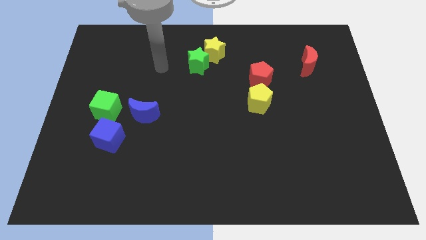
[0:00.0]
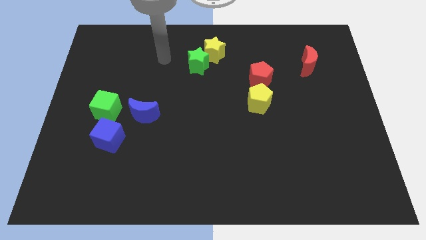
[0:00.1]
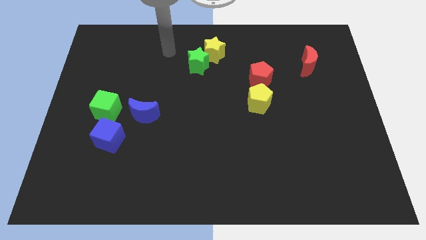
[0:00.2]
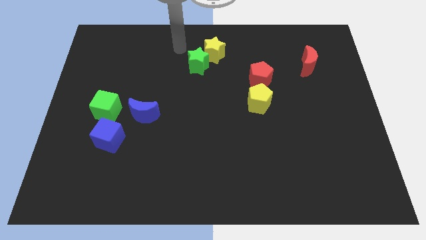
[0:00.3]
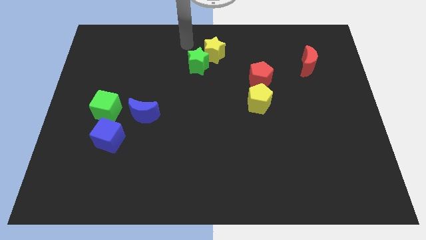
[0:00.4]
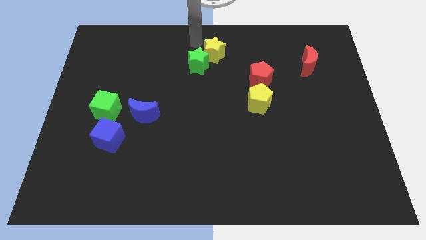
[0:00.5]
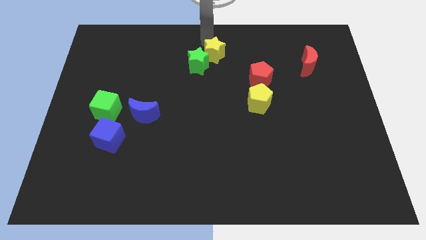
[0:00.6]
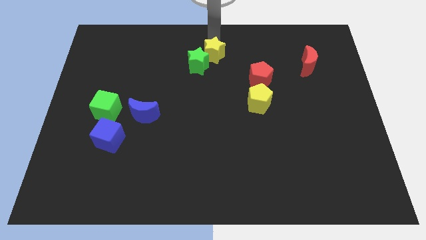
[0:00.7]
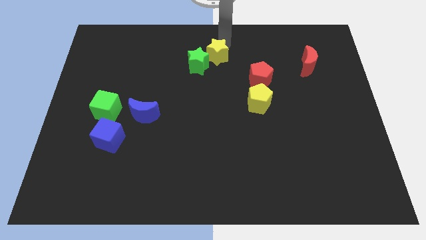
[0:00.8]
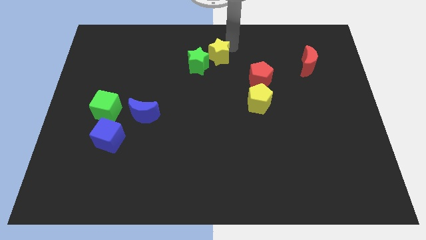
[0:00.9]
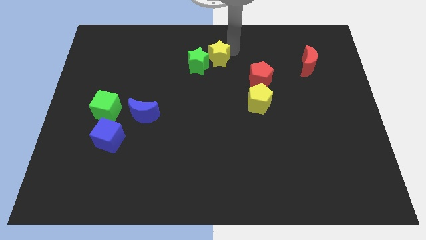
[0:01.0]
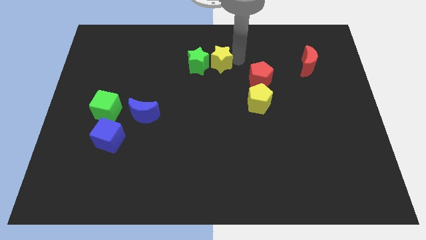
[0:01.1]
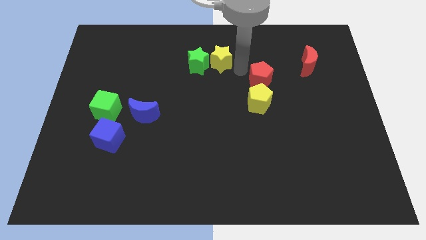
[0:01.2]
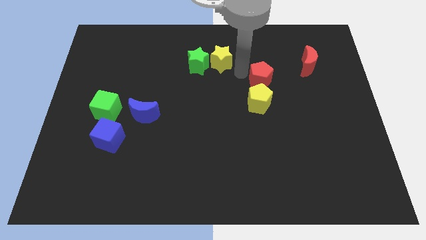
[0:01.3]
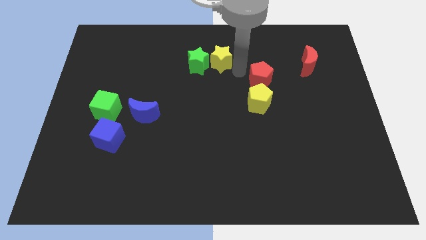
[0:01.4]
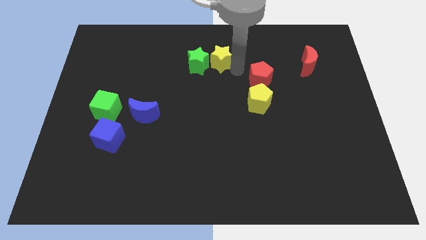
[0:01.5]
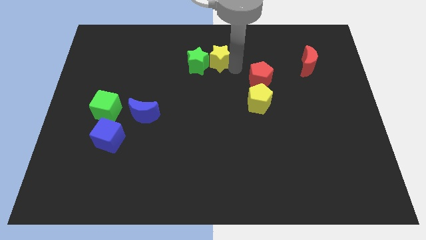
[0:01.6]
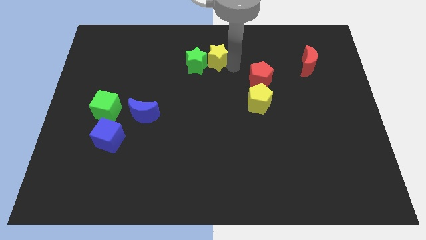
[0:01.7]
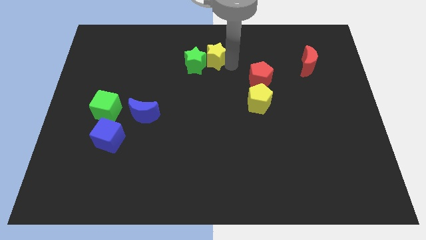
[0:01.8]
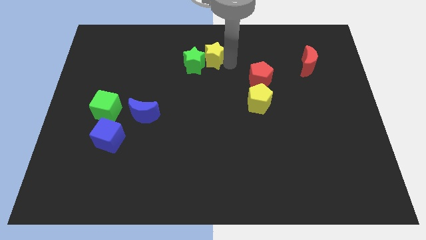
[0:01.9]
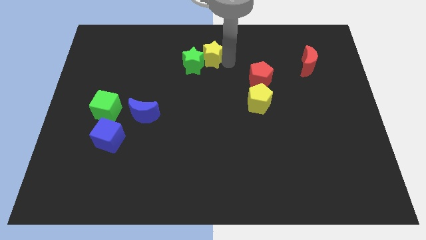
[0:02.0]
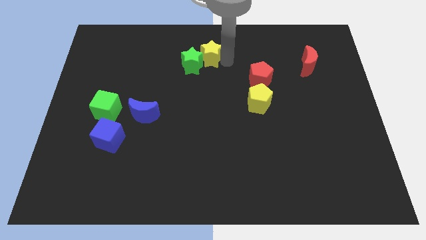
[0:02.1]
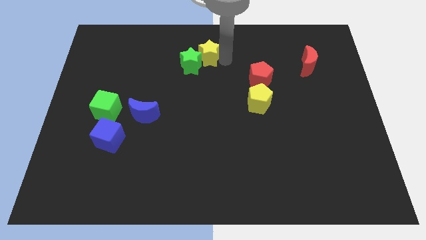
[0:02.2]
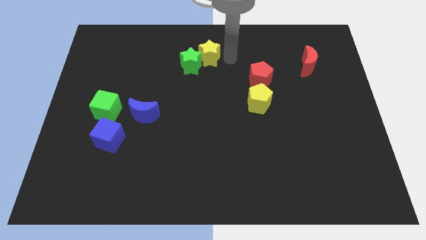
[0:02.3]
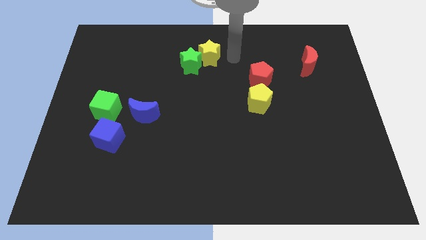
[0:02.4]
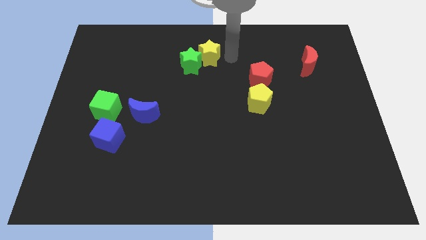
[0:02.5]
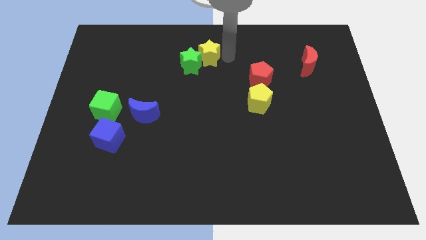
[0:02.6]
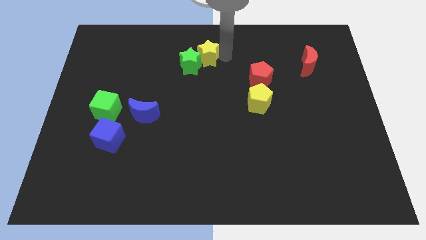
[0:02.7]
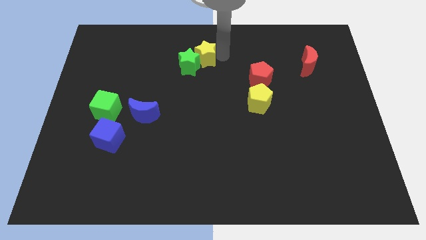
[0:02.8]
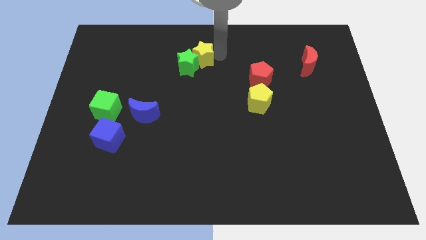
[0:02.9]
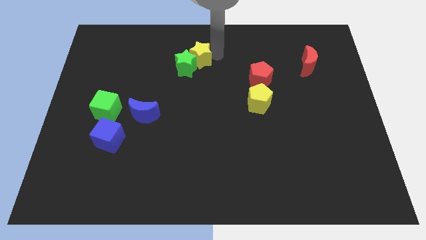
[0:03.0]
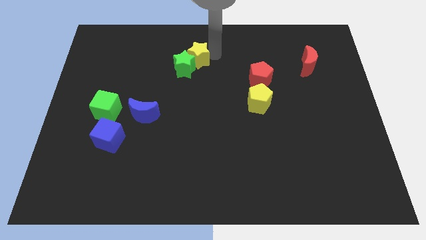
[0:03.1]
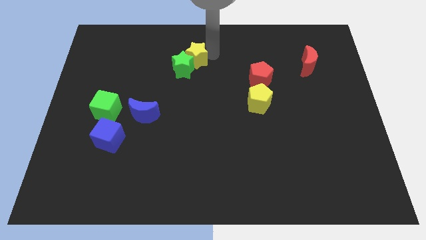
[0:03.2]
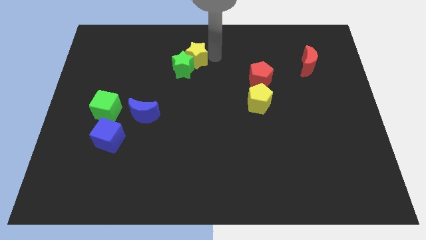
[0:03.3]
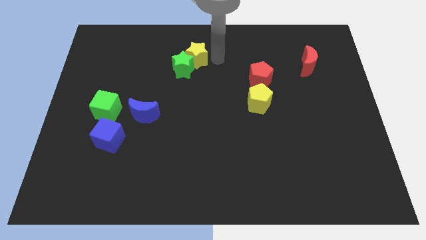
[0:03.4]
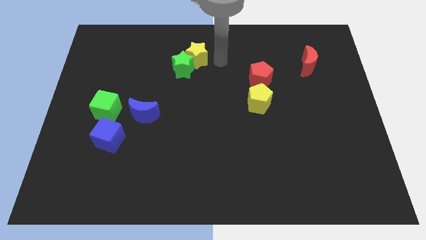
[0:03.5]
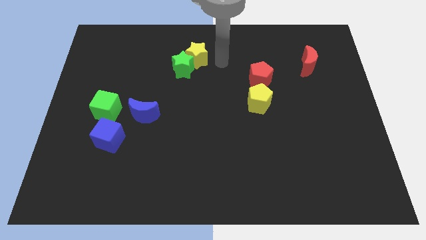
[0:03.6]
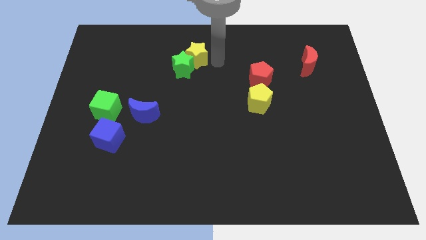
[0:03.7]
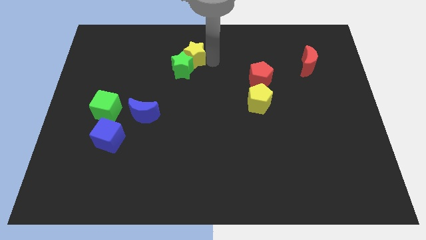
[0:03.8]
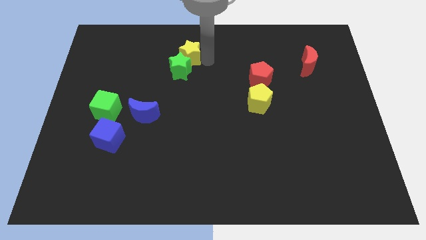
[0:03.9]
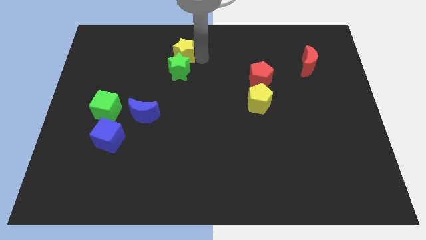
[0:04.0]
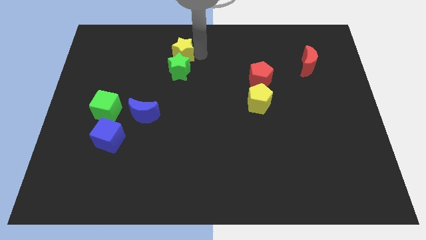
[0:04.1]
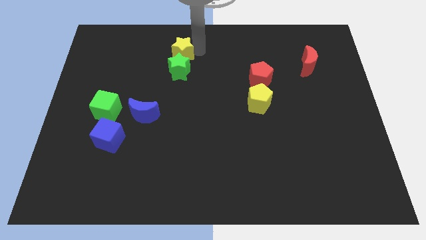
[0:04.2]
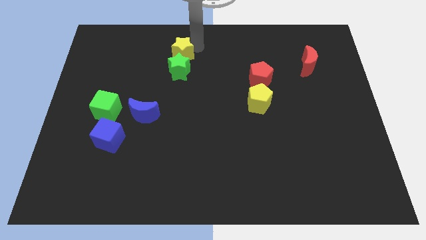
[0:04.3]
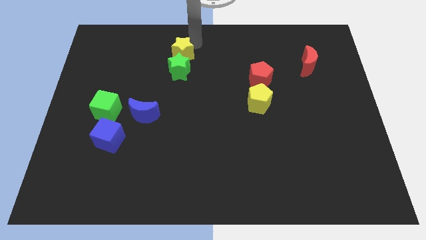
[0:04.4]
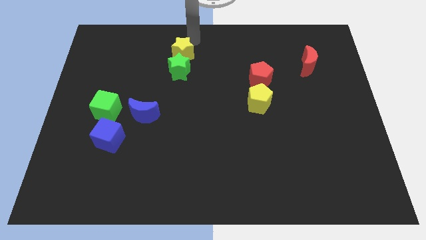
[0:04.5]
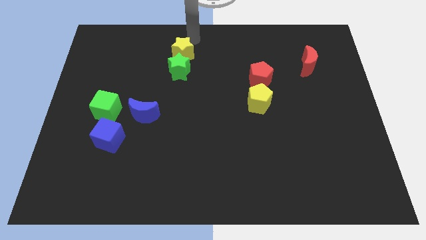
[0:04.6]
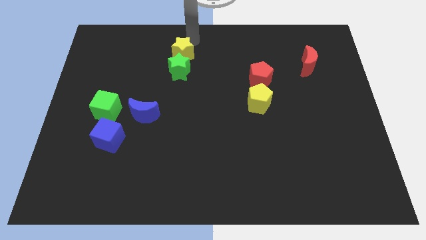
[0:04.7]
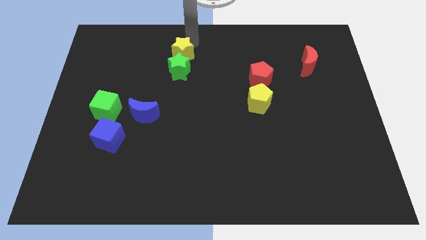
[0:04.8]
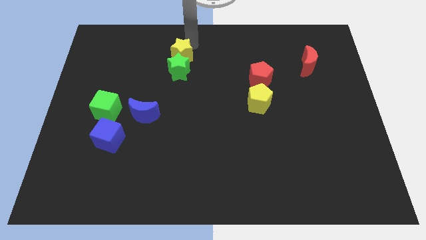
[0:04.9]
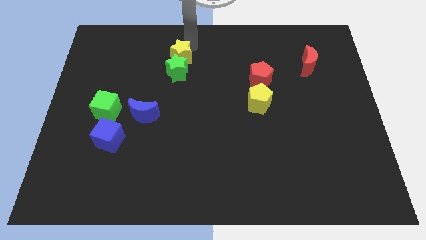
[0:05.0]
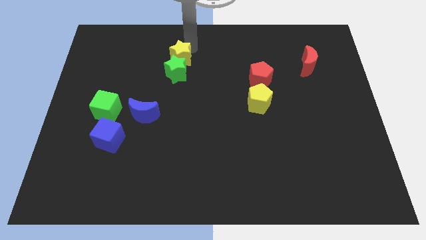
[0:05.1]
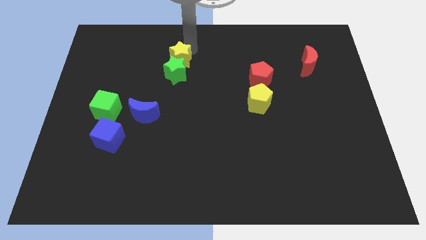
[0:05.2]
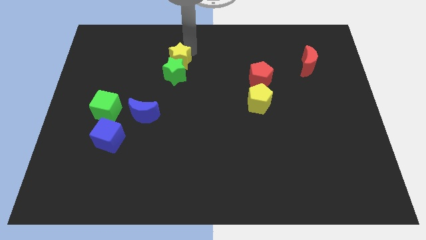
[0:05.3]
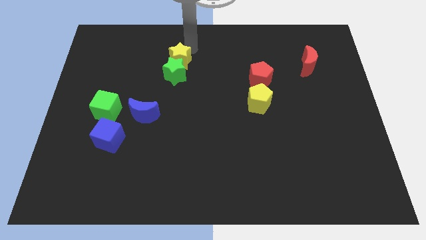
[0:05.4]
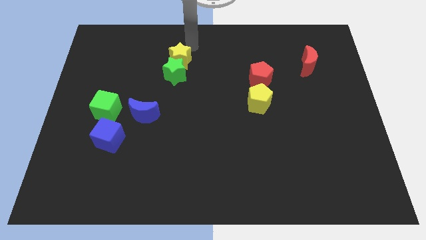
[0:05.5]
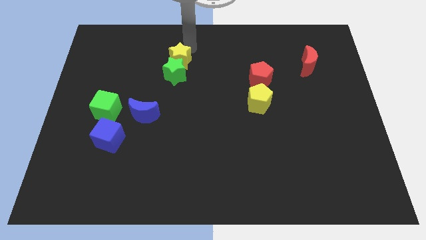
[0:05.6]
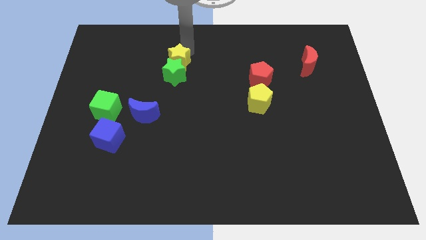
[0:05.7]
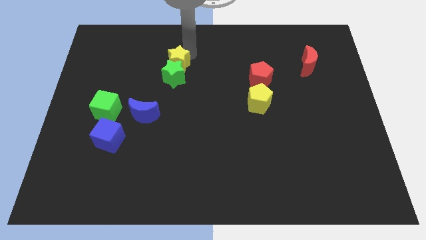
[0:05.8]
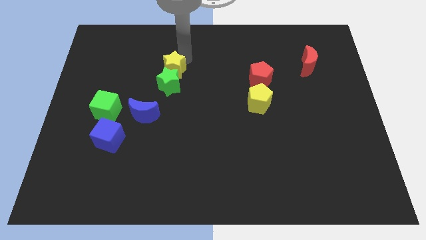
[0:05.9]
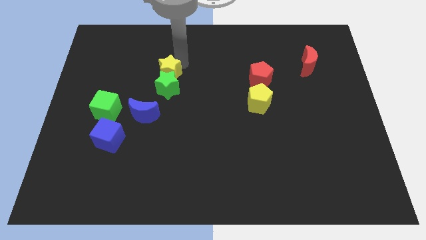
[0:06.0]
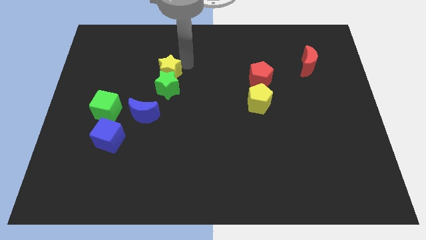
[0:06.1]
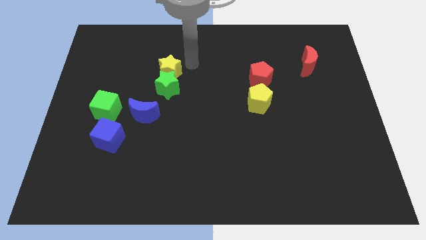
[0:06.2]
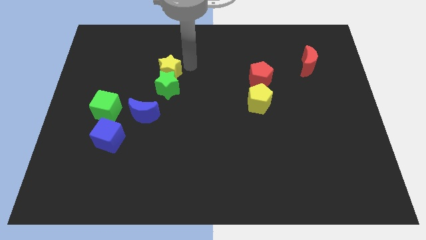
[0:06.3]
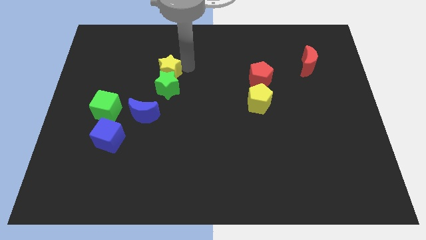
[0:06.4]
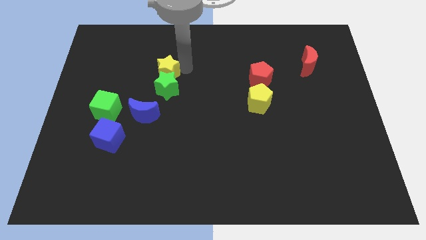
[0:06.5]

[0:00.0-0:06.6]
move the yellow star to the top side of the blue moon
